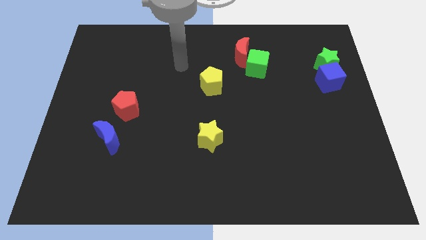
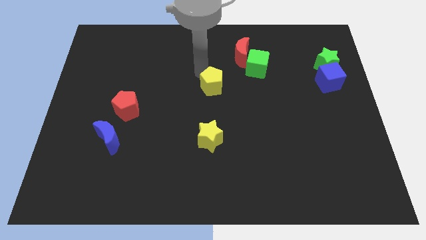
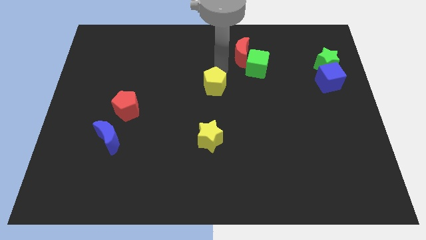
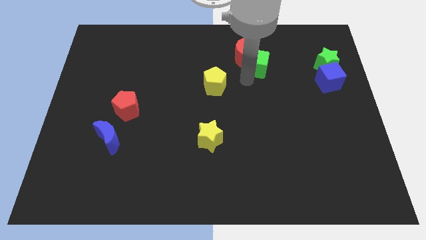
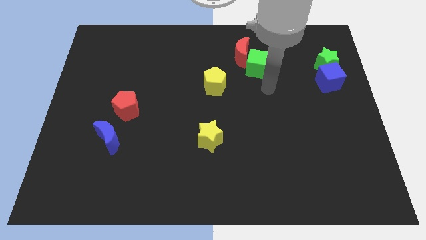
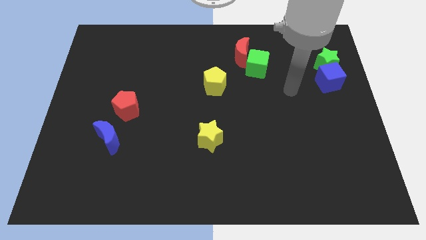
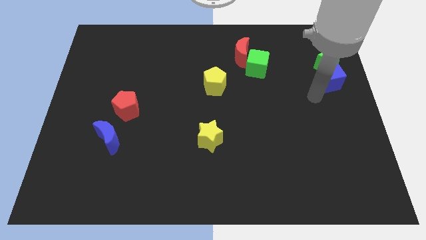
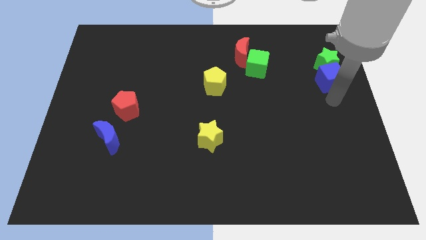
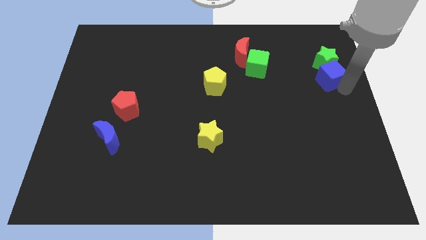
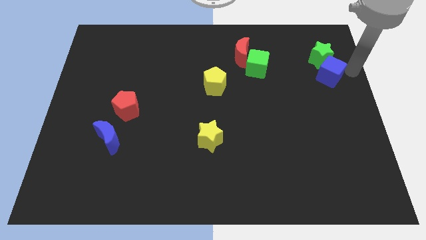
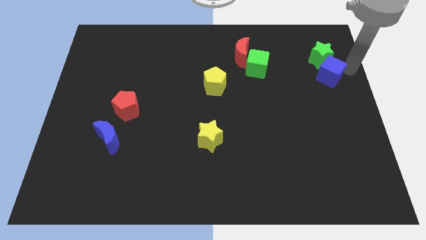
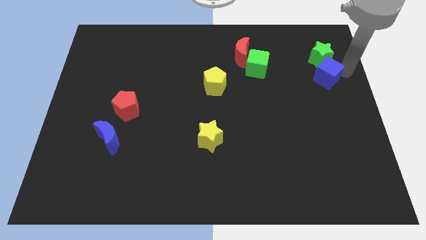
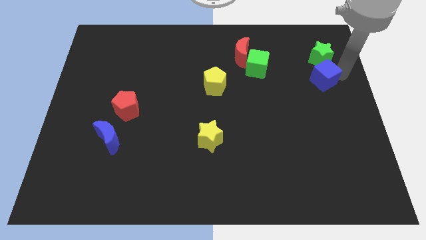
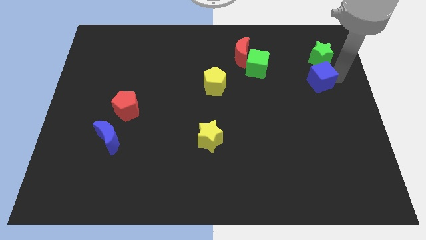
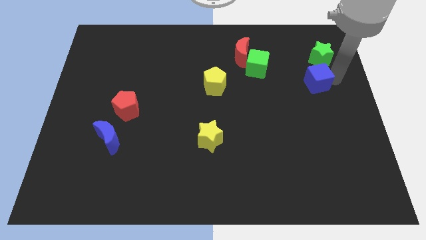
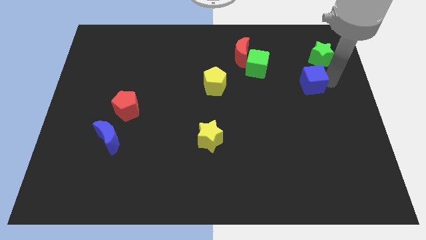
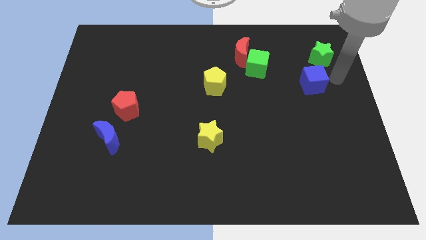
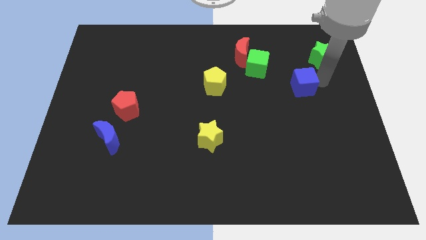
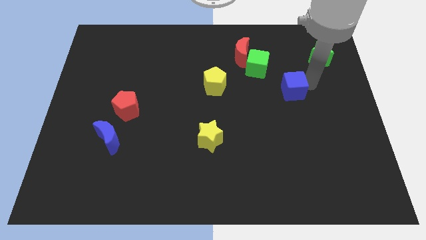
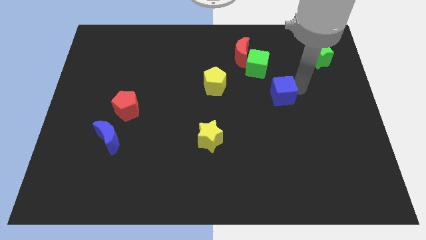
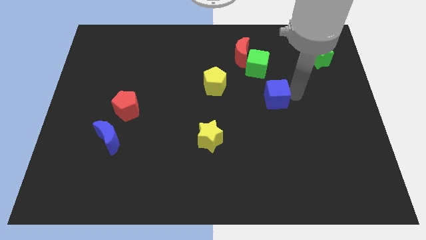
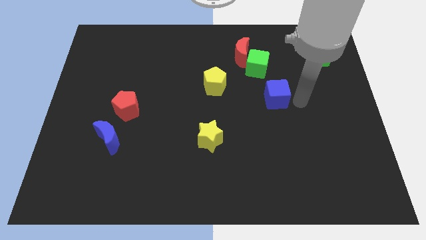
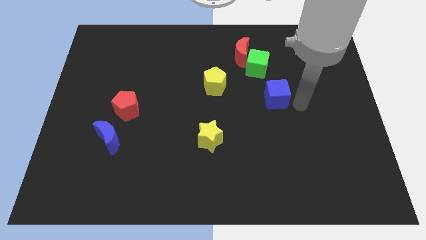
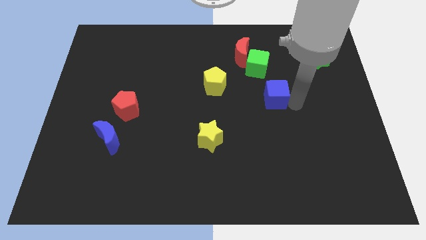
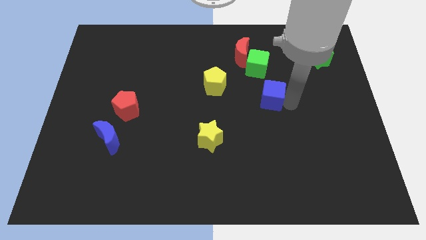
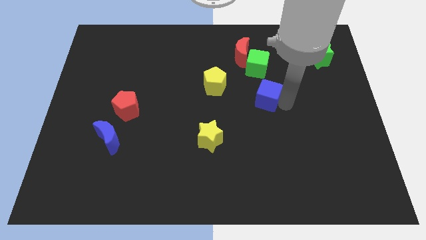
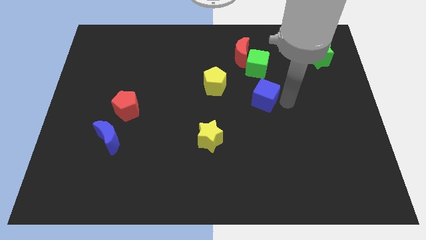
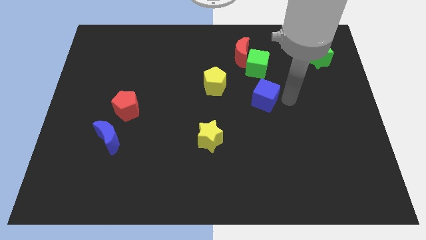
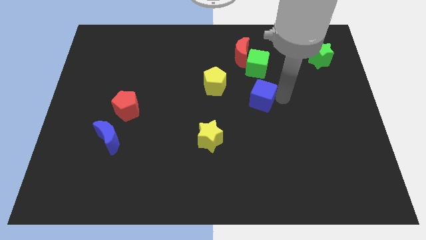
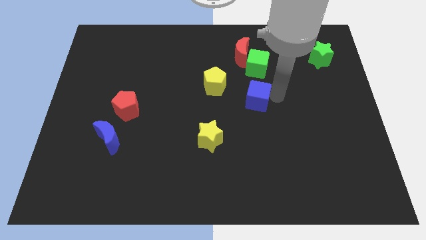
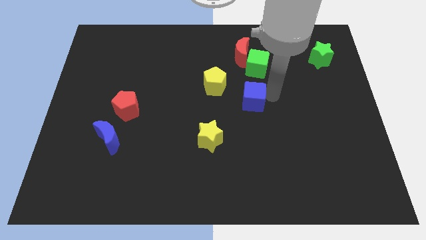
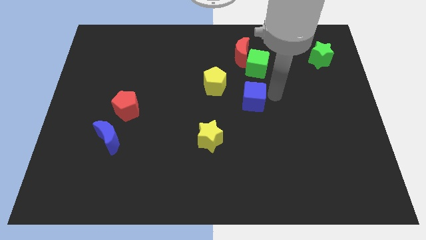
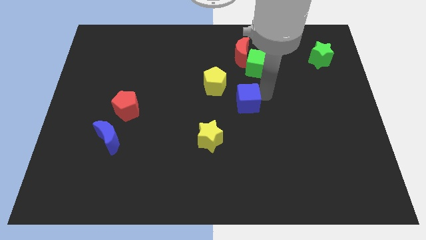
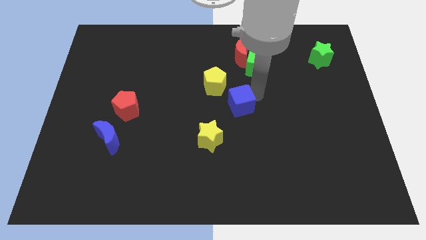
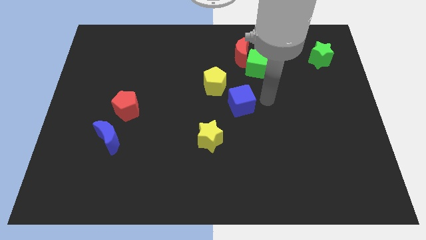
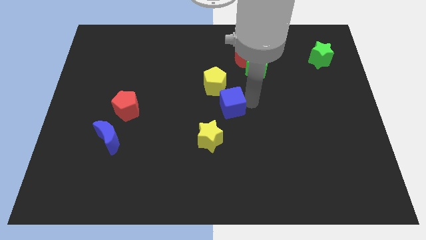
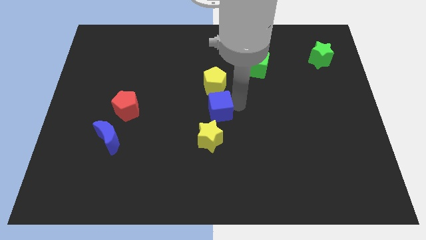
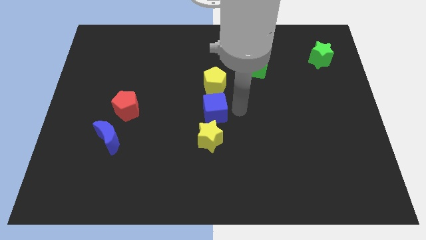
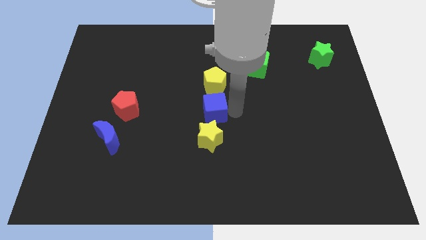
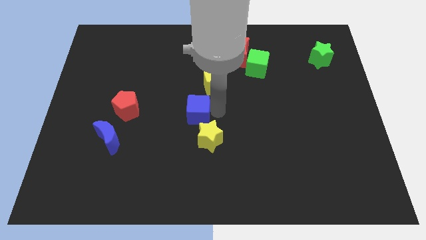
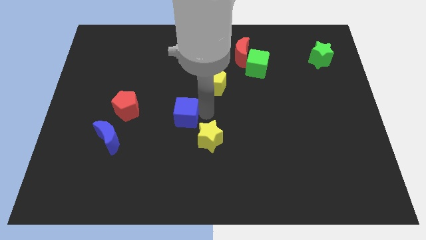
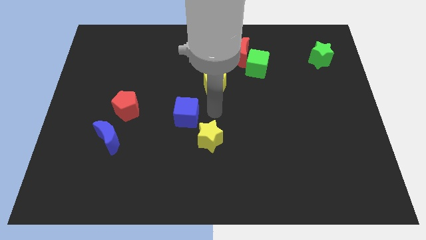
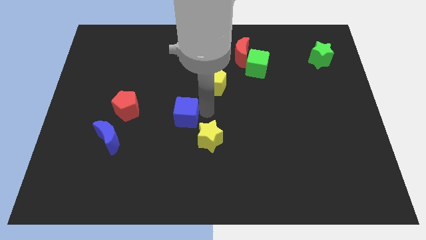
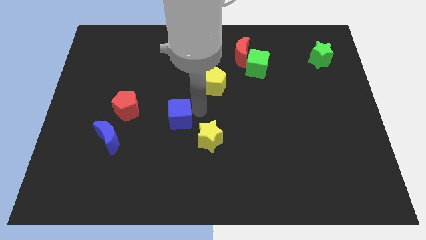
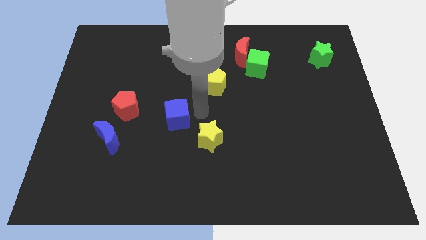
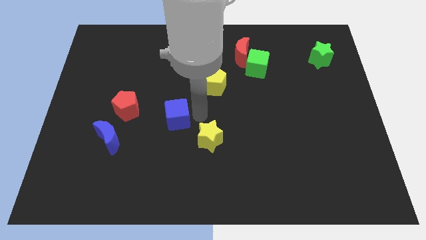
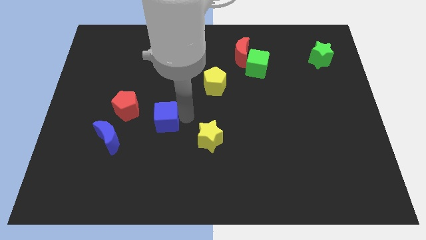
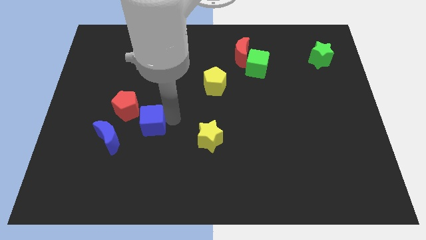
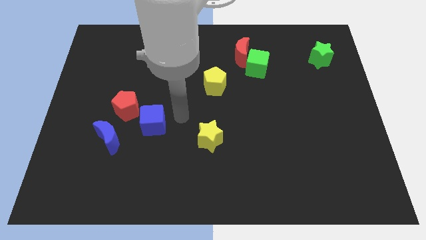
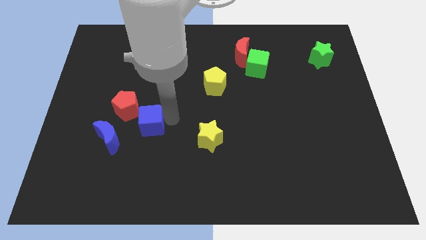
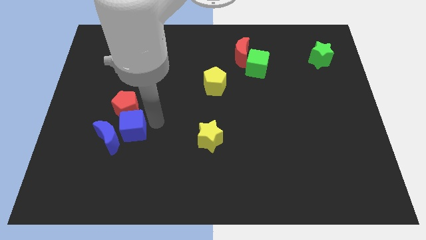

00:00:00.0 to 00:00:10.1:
move the blue cube close to the blue moon

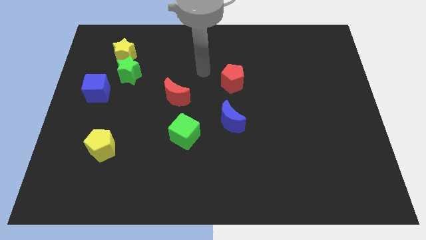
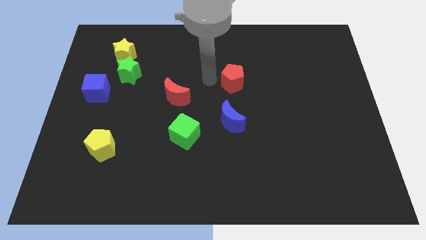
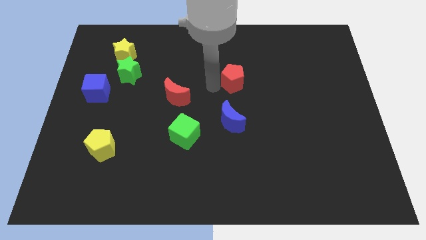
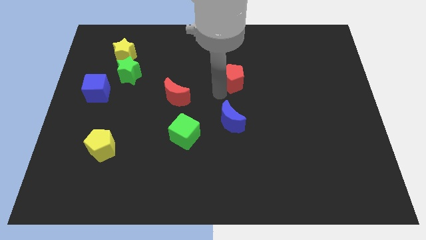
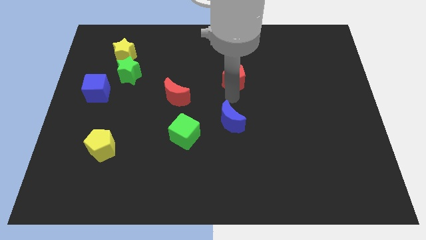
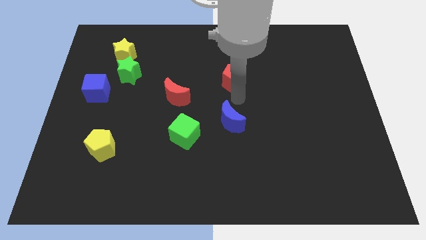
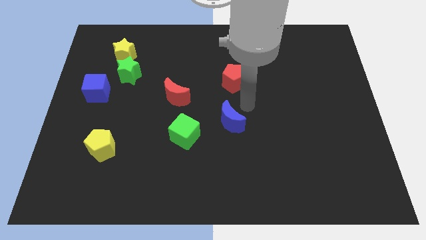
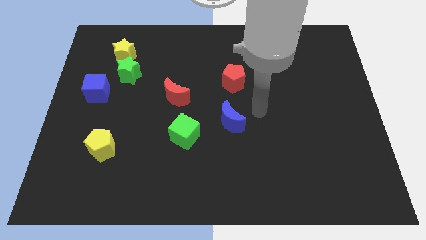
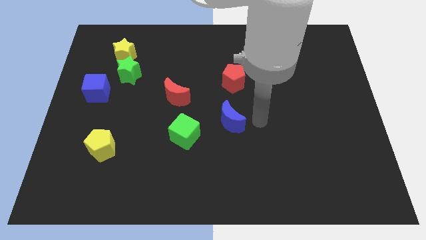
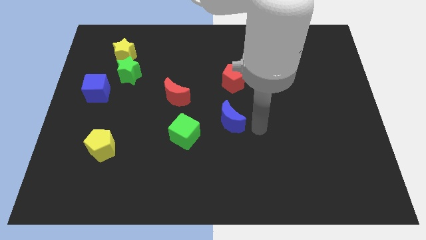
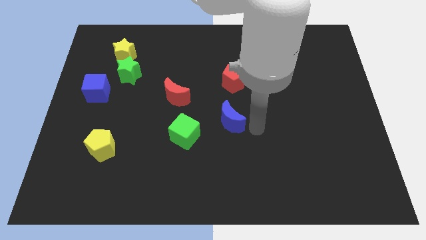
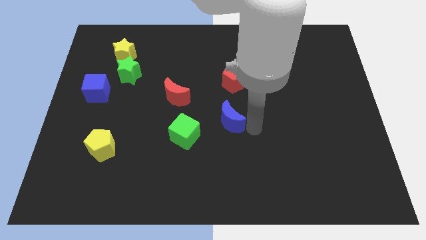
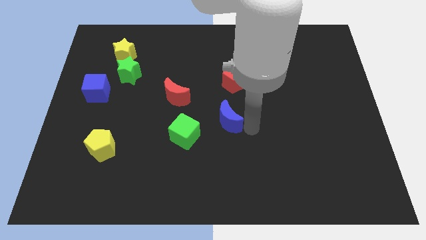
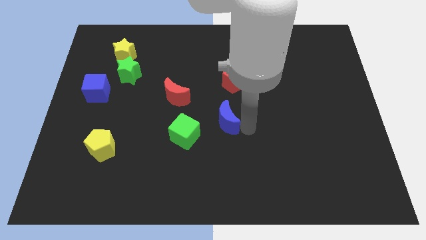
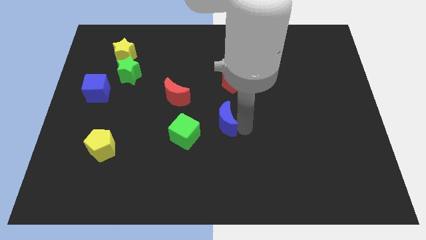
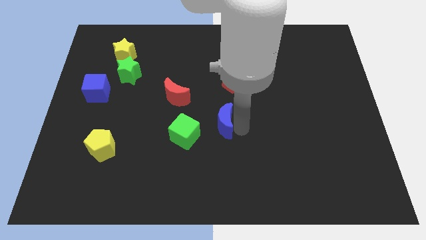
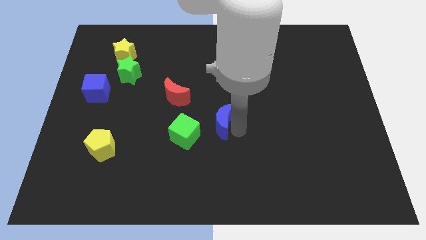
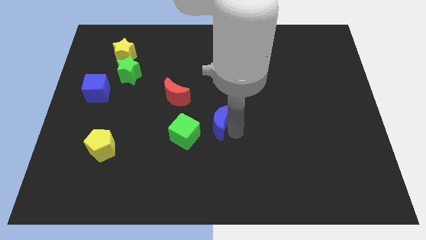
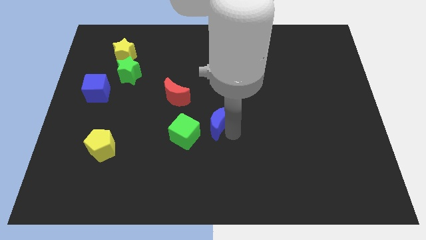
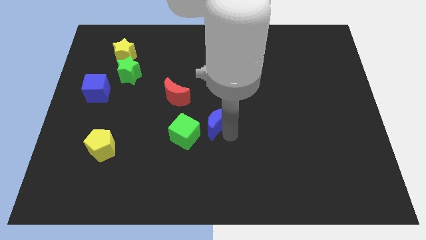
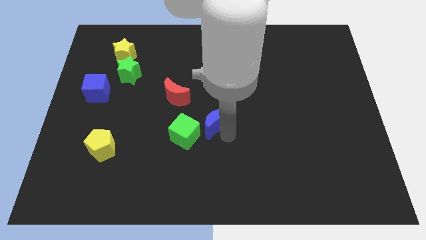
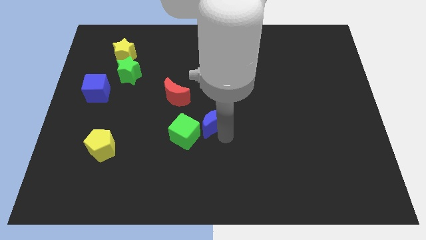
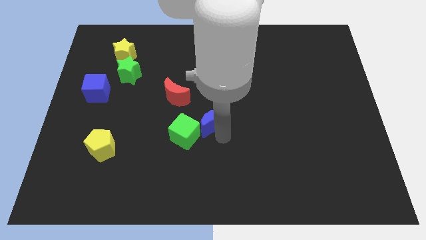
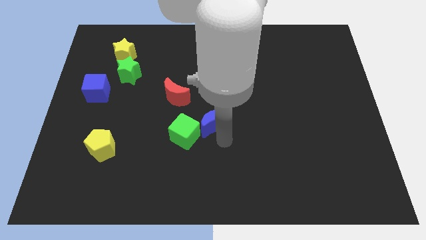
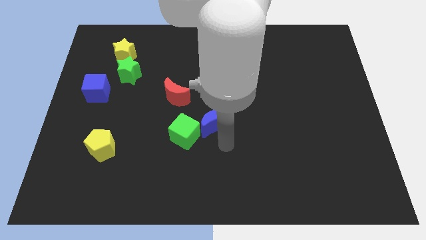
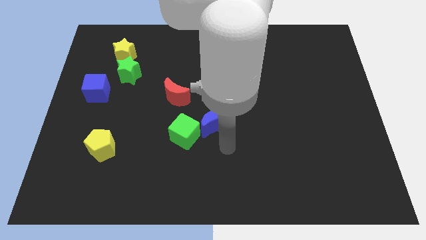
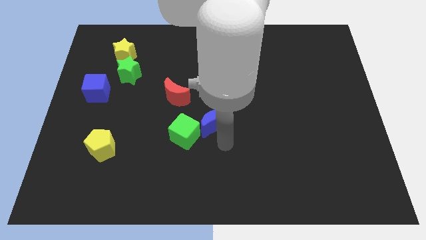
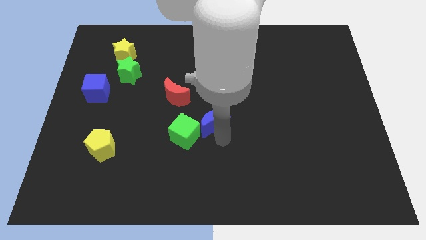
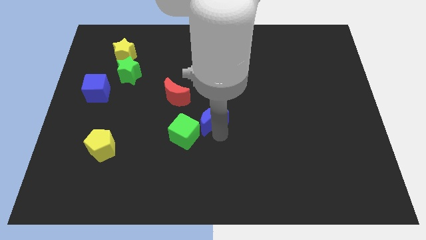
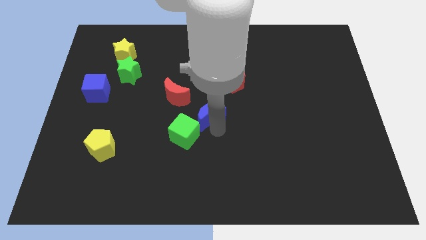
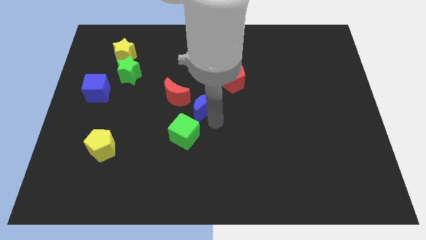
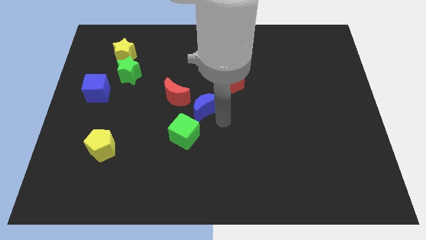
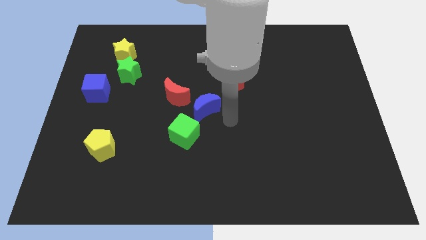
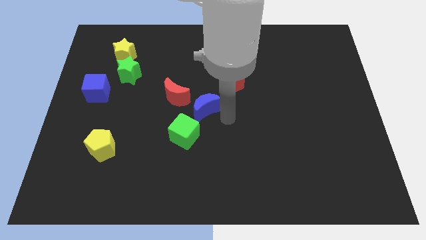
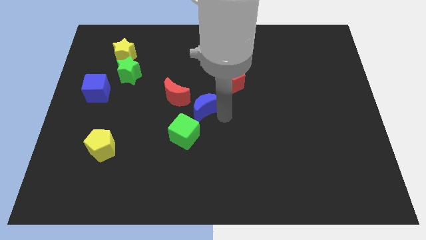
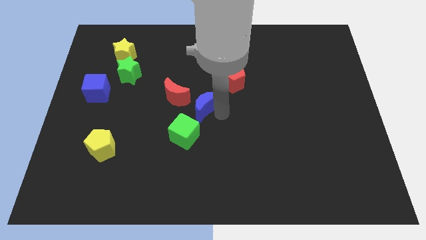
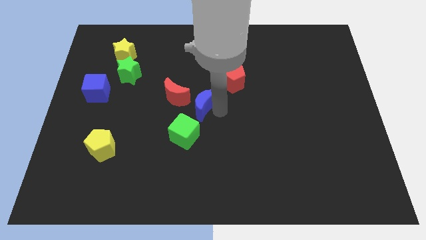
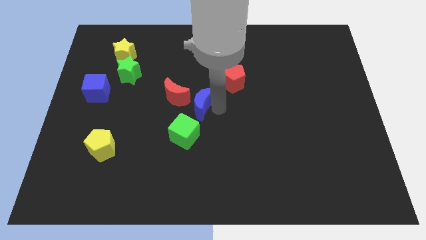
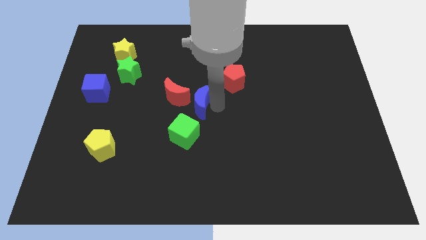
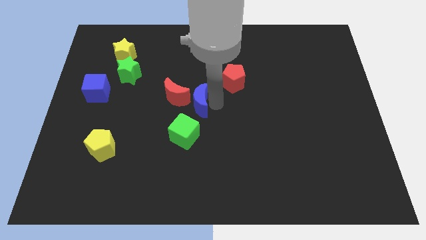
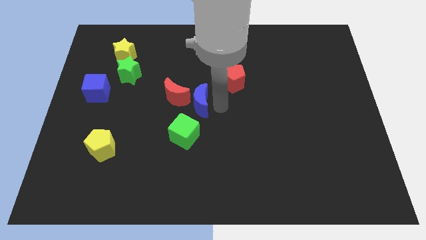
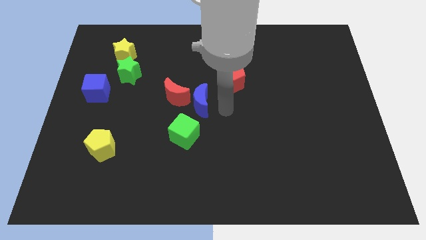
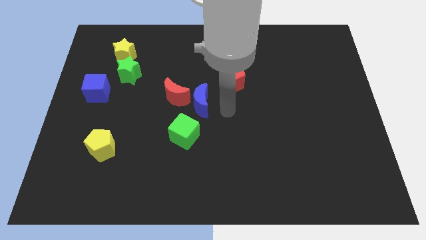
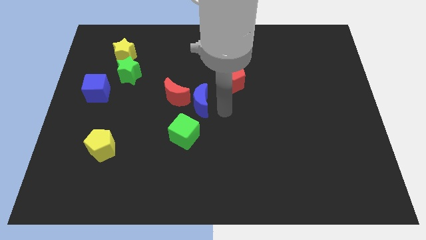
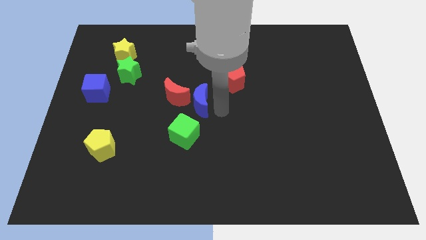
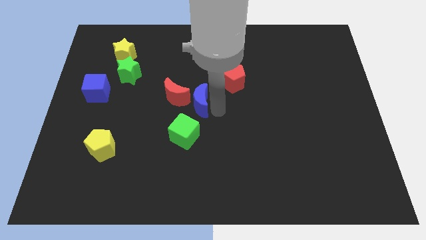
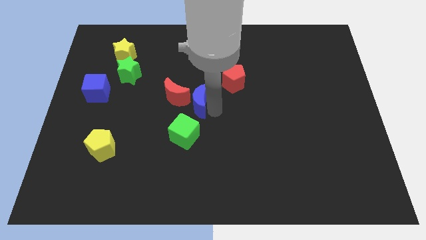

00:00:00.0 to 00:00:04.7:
slide the blue moon next to the red moon
